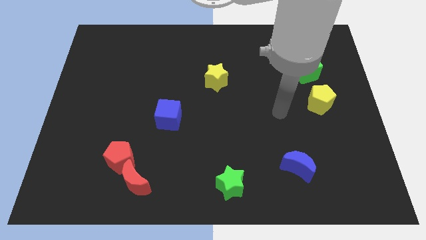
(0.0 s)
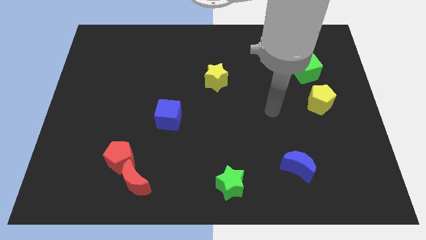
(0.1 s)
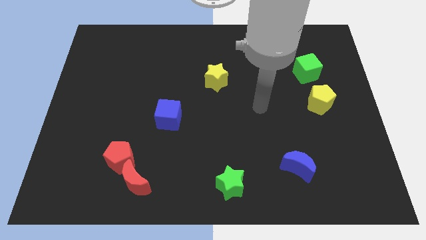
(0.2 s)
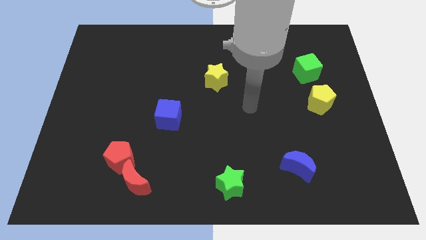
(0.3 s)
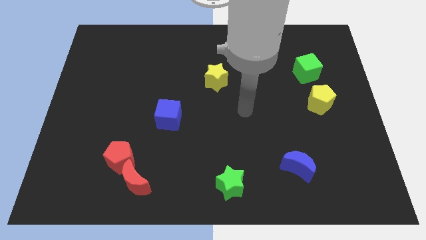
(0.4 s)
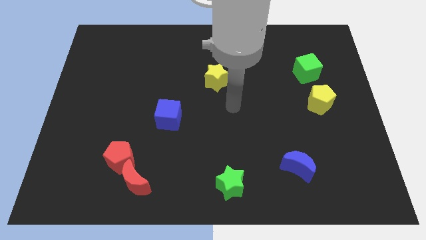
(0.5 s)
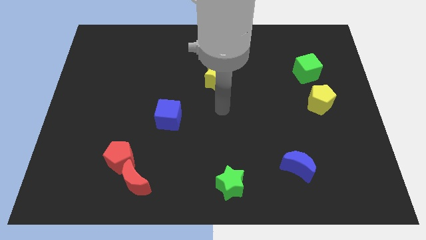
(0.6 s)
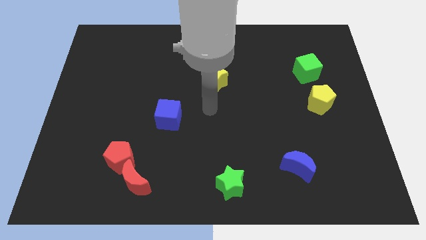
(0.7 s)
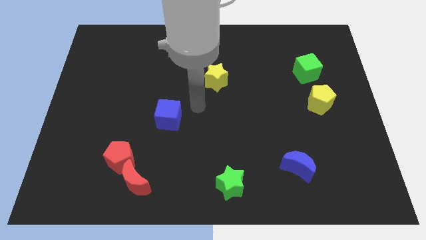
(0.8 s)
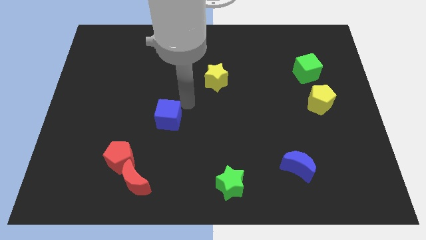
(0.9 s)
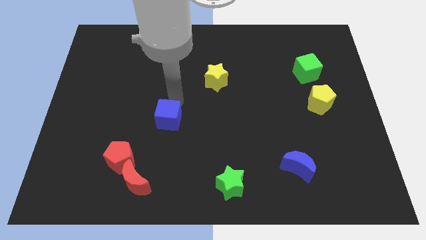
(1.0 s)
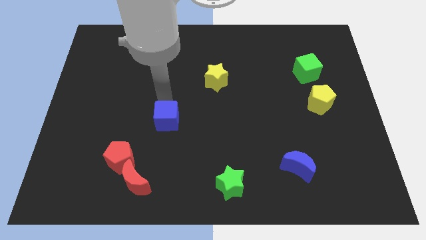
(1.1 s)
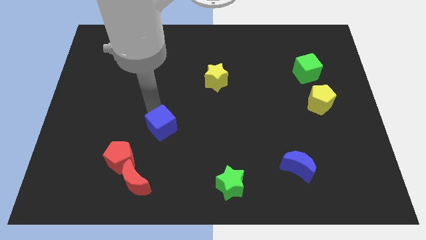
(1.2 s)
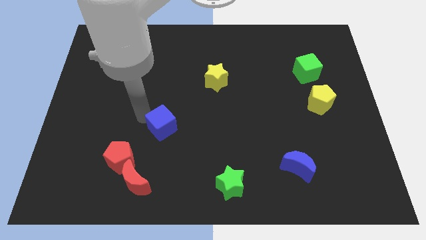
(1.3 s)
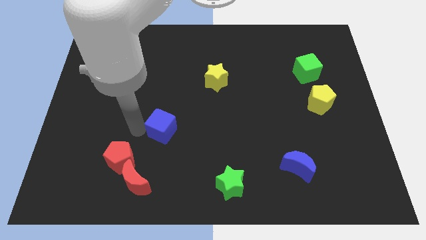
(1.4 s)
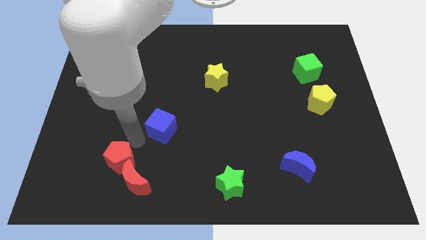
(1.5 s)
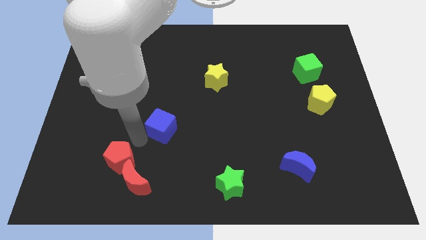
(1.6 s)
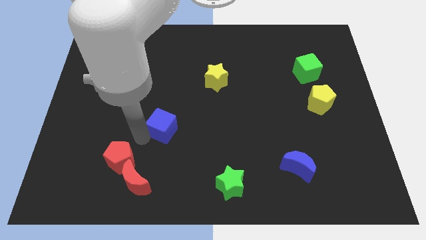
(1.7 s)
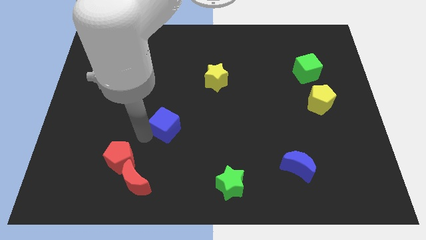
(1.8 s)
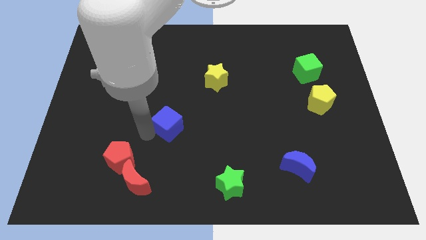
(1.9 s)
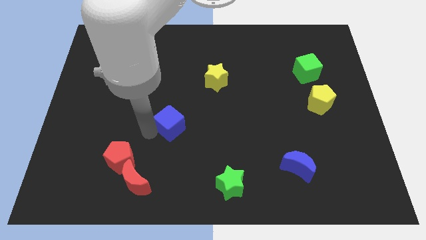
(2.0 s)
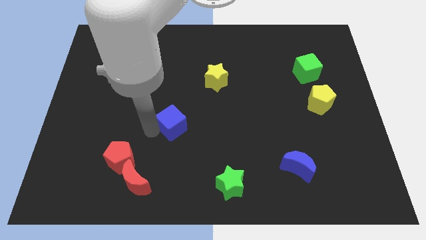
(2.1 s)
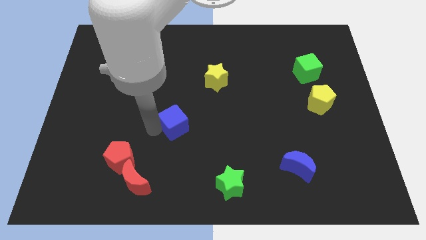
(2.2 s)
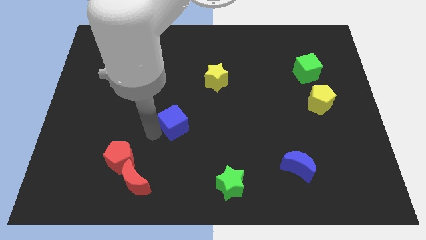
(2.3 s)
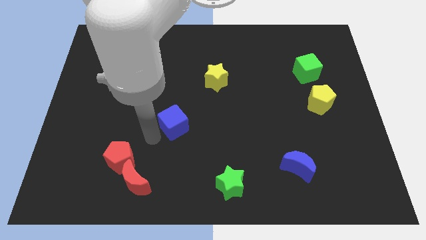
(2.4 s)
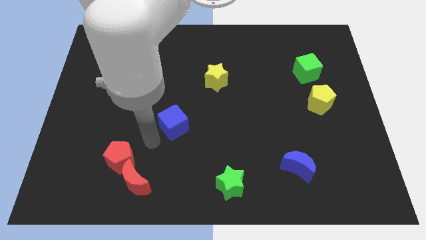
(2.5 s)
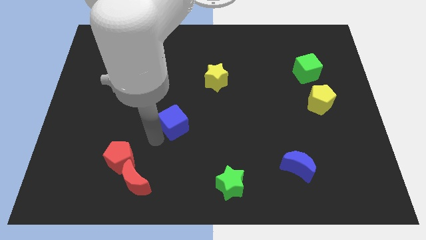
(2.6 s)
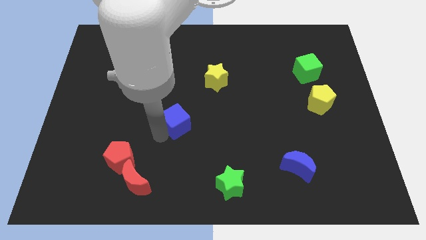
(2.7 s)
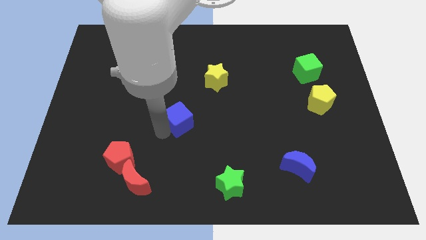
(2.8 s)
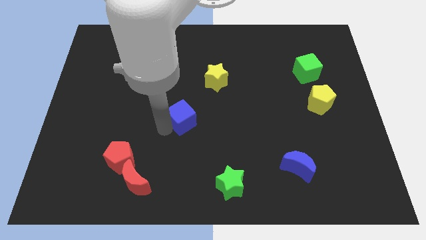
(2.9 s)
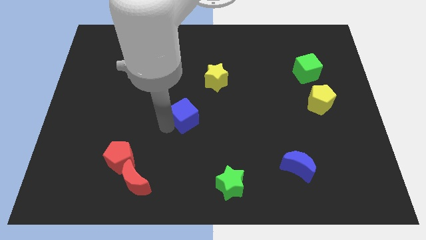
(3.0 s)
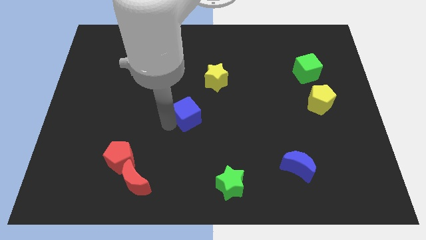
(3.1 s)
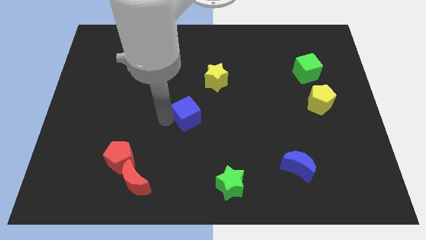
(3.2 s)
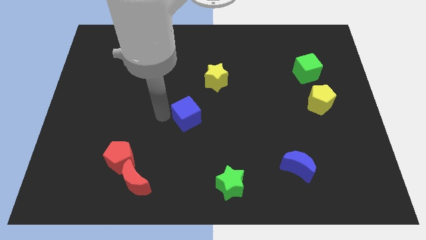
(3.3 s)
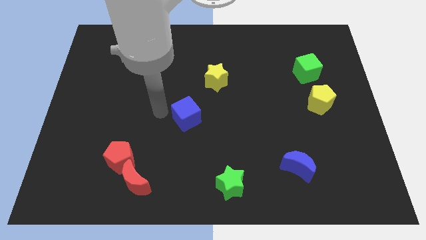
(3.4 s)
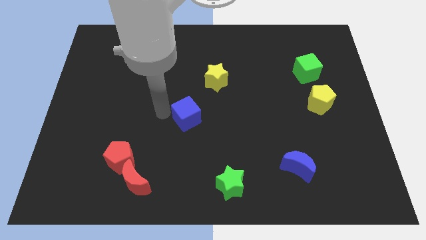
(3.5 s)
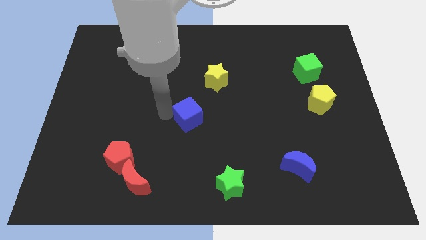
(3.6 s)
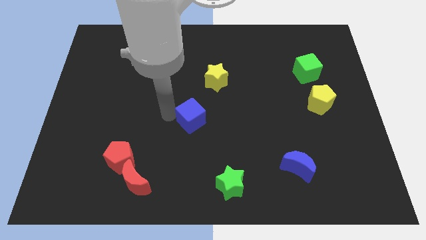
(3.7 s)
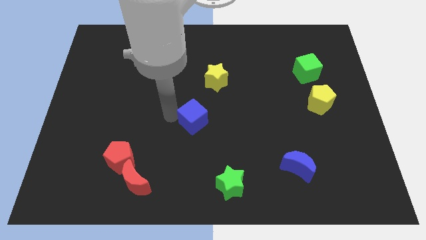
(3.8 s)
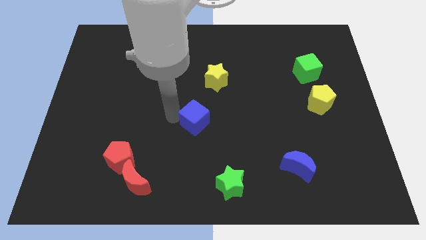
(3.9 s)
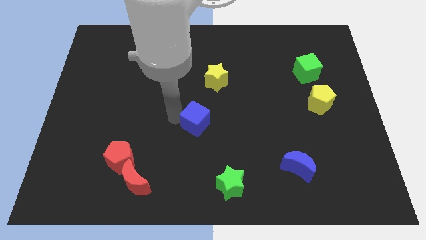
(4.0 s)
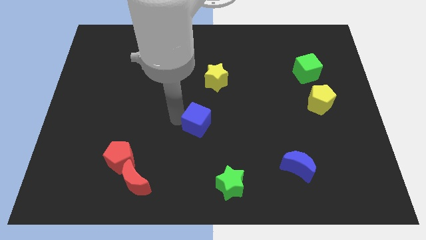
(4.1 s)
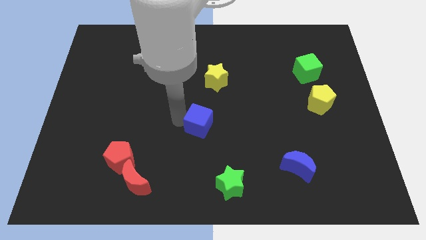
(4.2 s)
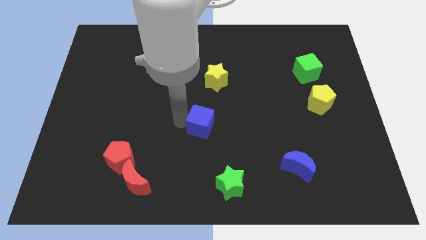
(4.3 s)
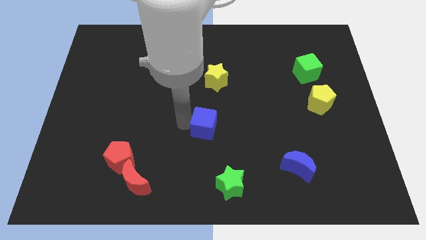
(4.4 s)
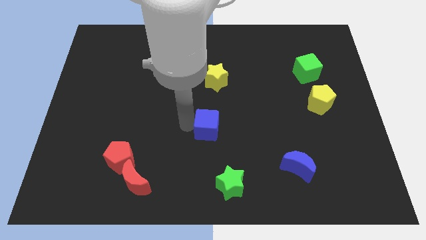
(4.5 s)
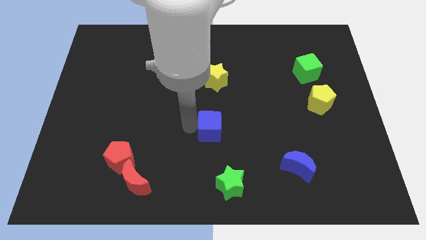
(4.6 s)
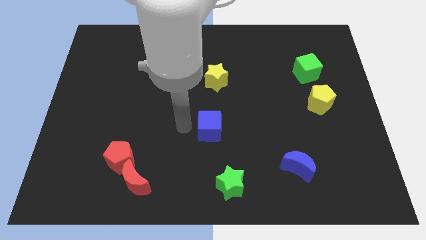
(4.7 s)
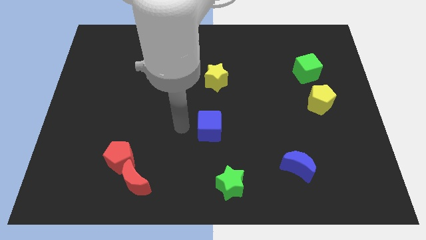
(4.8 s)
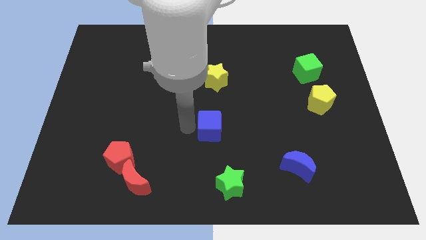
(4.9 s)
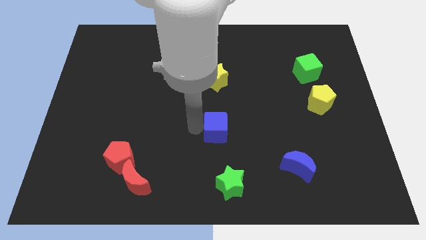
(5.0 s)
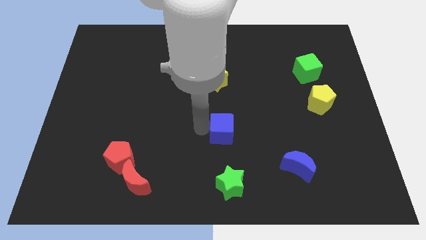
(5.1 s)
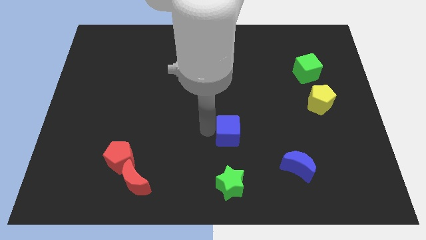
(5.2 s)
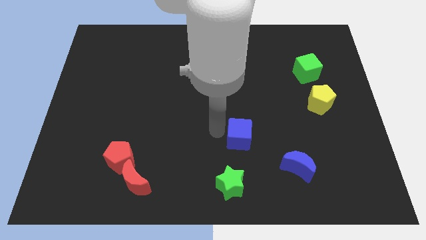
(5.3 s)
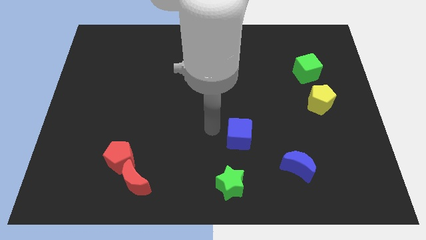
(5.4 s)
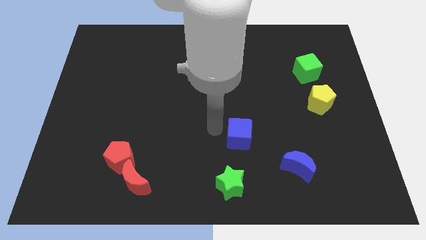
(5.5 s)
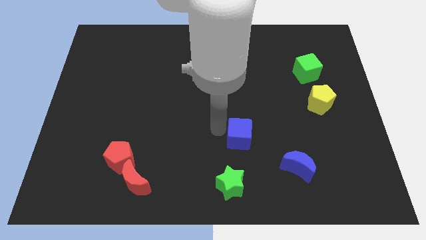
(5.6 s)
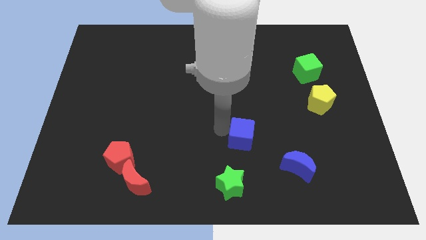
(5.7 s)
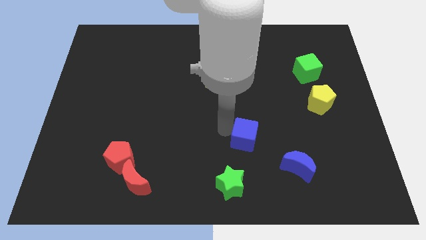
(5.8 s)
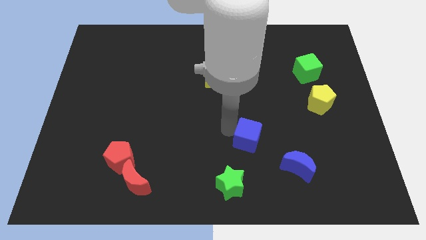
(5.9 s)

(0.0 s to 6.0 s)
push the blue cube to the top left side of the blue moon

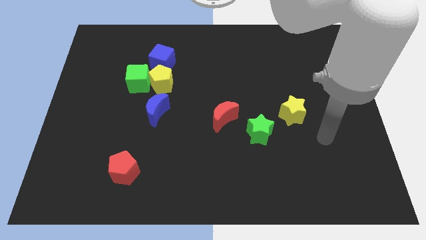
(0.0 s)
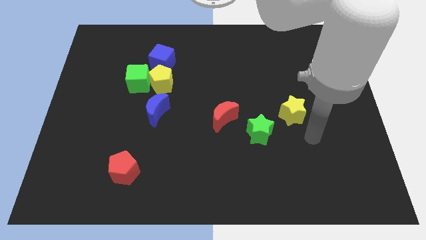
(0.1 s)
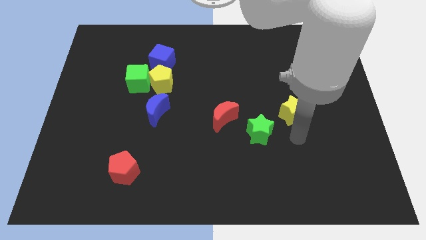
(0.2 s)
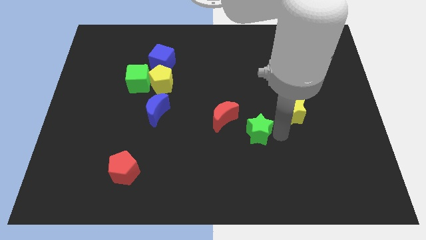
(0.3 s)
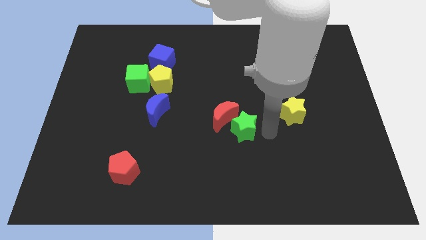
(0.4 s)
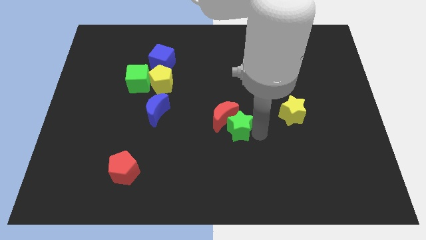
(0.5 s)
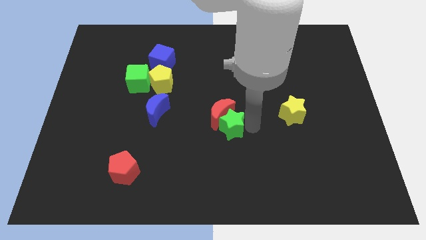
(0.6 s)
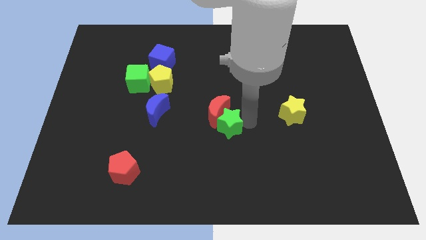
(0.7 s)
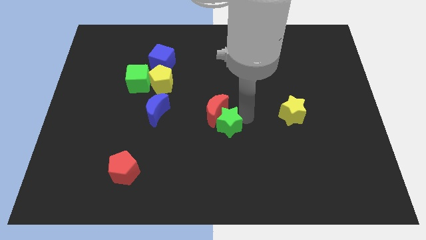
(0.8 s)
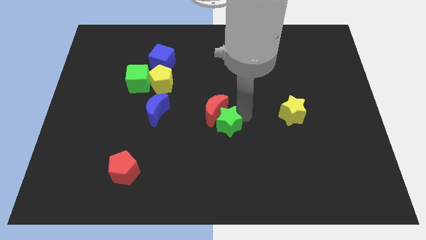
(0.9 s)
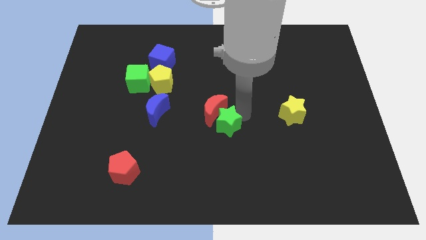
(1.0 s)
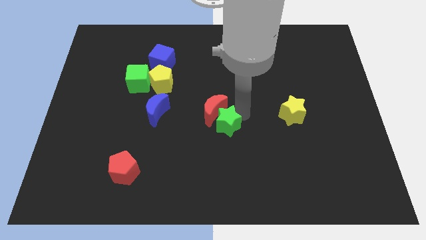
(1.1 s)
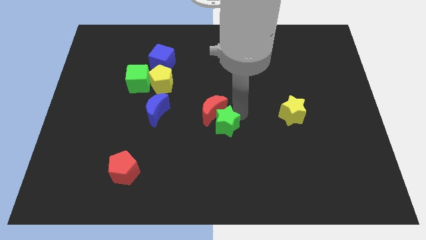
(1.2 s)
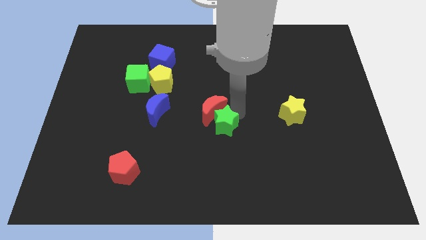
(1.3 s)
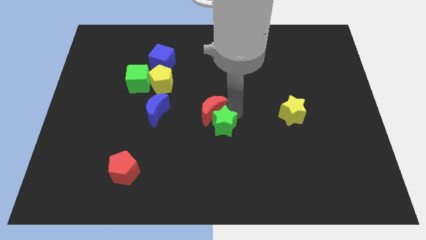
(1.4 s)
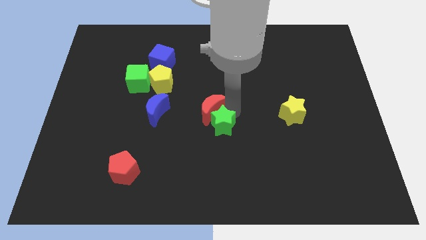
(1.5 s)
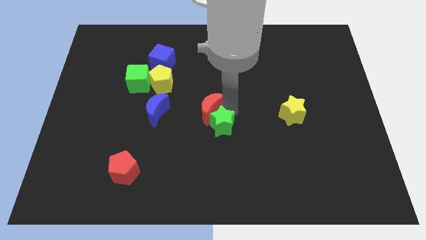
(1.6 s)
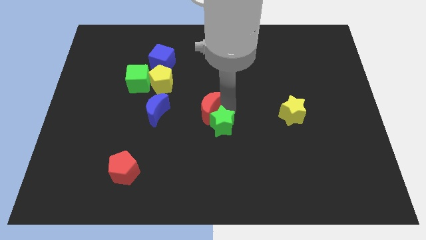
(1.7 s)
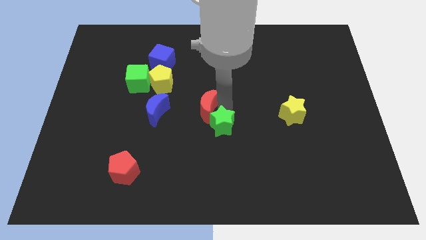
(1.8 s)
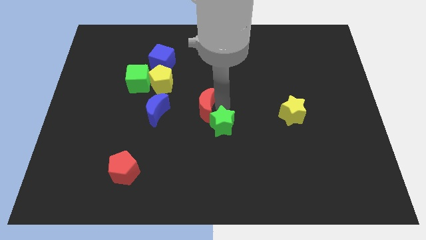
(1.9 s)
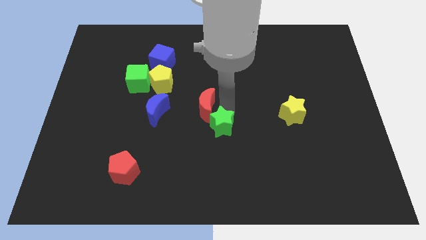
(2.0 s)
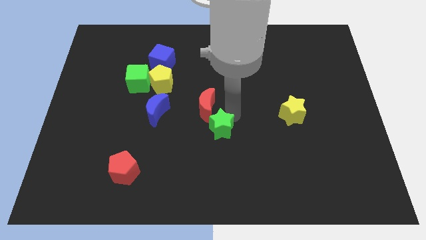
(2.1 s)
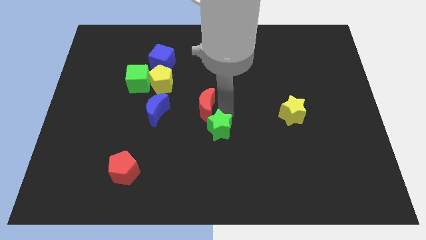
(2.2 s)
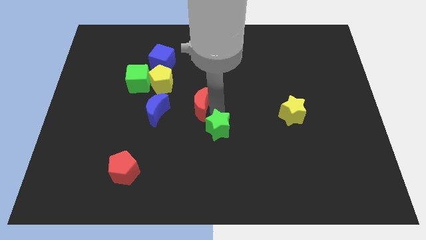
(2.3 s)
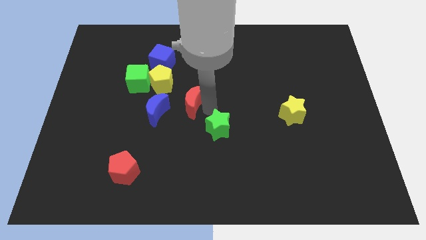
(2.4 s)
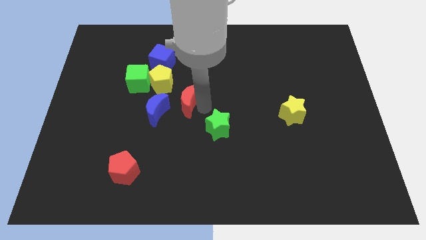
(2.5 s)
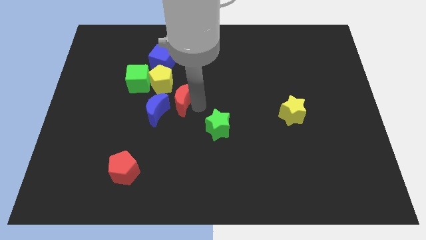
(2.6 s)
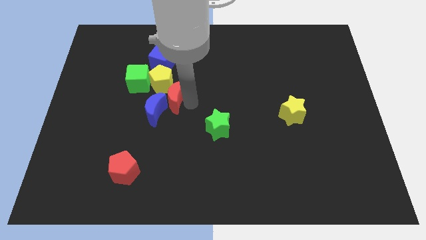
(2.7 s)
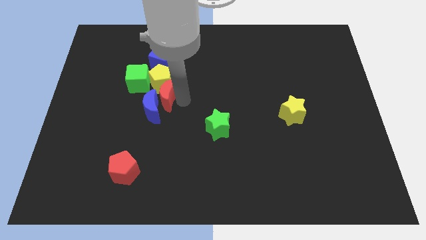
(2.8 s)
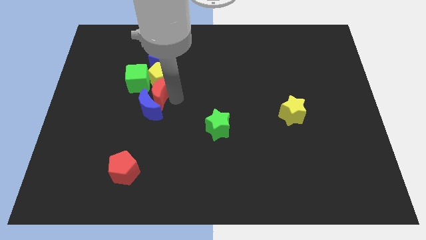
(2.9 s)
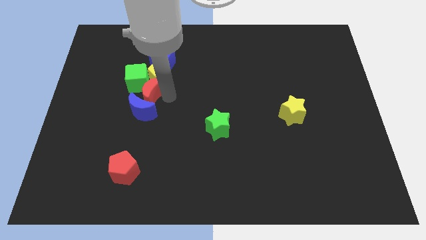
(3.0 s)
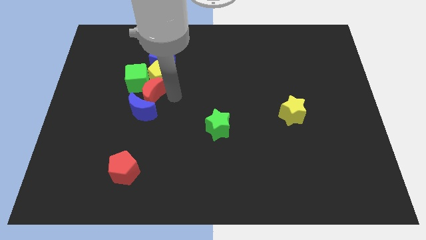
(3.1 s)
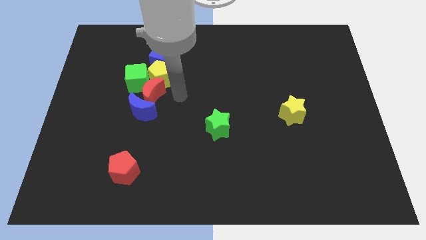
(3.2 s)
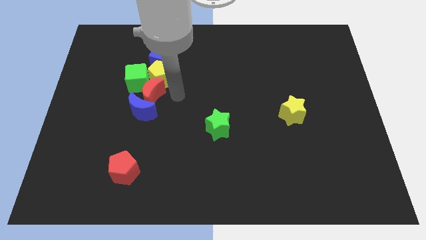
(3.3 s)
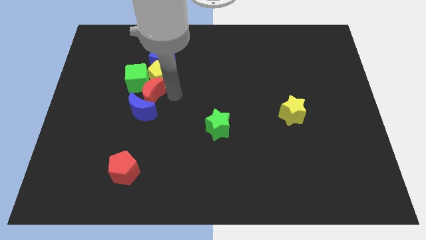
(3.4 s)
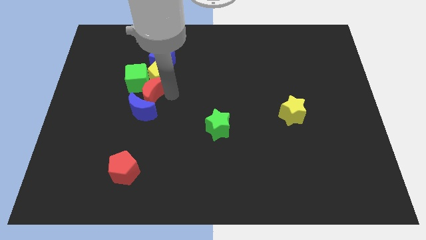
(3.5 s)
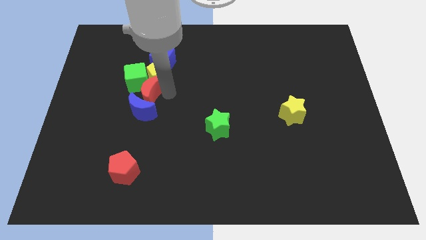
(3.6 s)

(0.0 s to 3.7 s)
move the red moon to the top left of the blue moon
